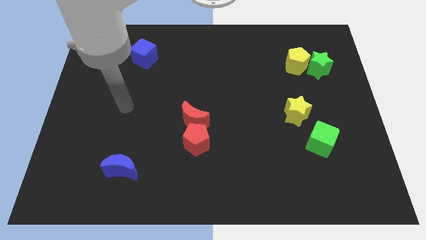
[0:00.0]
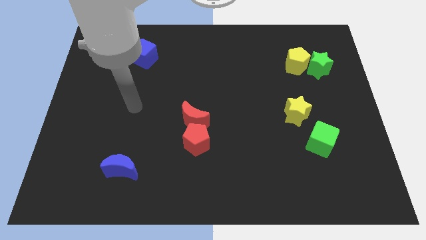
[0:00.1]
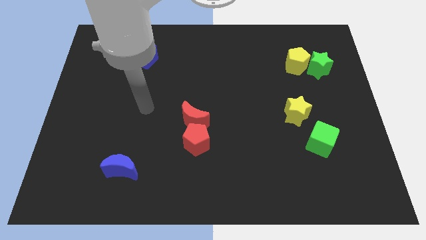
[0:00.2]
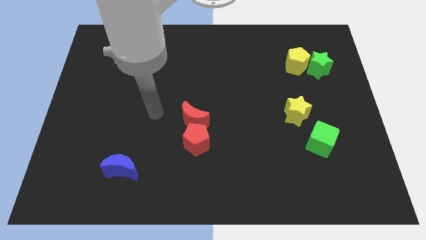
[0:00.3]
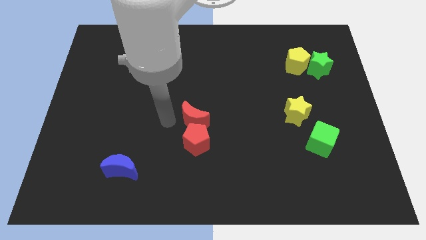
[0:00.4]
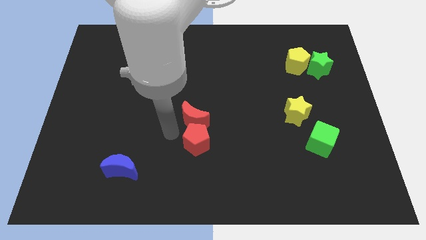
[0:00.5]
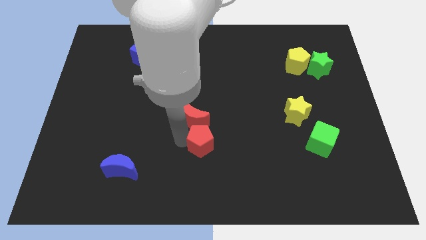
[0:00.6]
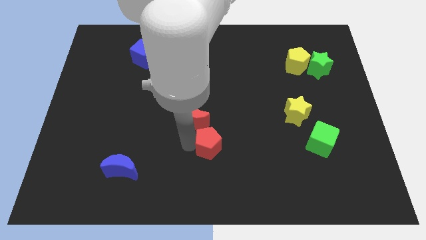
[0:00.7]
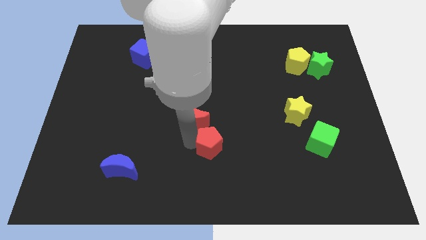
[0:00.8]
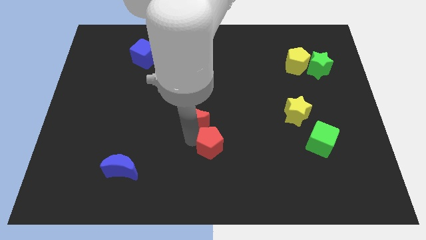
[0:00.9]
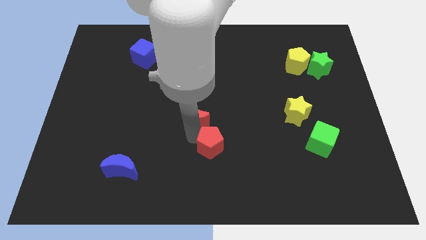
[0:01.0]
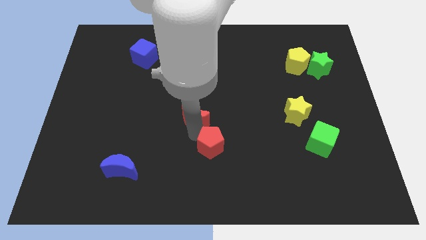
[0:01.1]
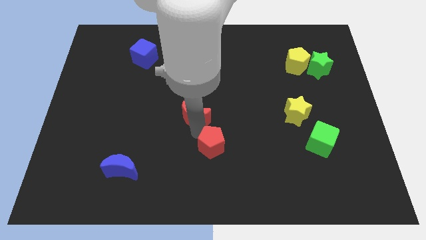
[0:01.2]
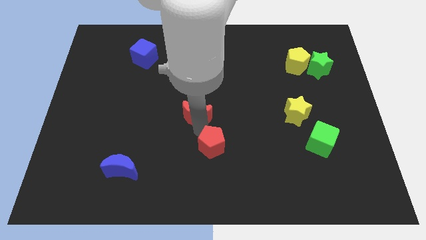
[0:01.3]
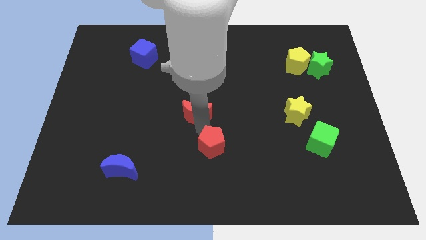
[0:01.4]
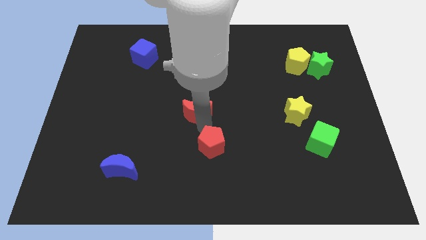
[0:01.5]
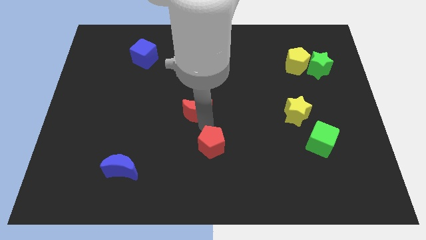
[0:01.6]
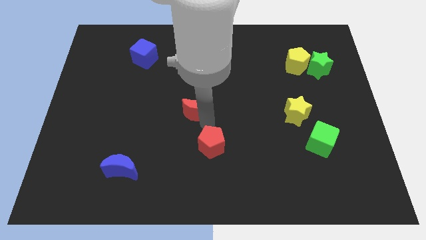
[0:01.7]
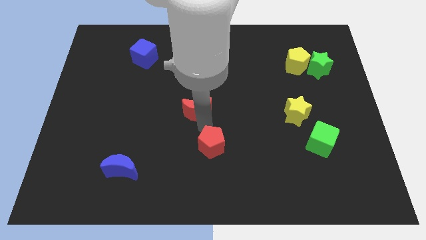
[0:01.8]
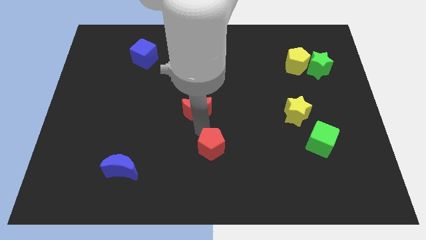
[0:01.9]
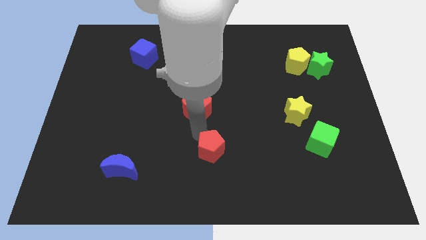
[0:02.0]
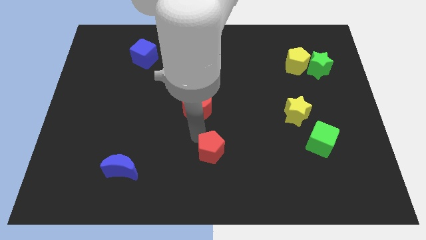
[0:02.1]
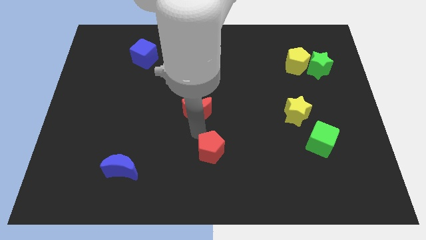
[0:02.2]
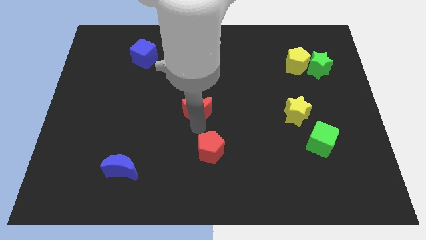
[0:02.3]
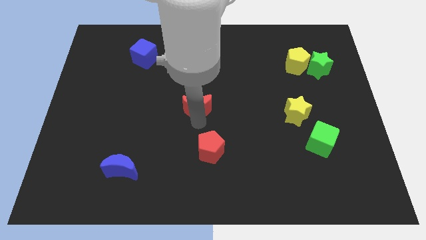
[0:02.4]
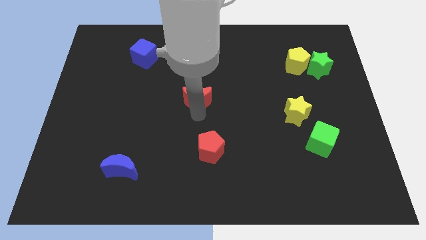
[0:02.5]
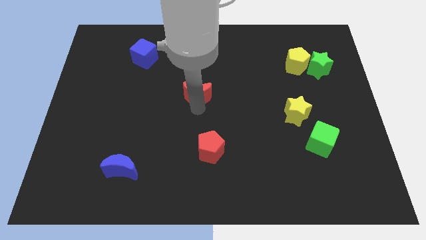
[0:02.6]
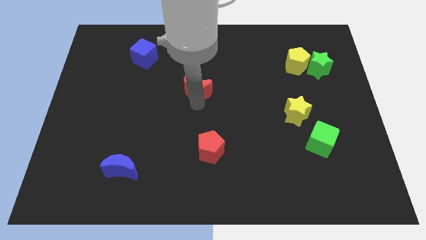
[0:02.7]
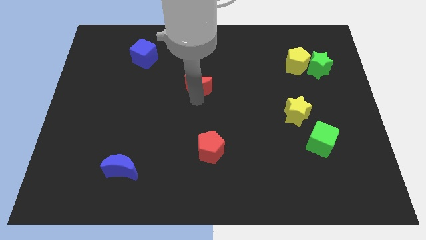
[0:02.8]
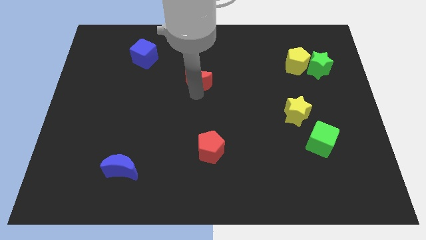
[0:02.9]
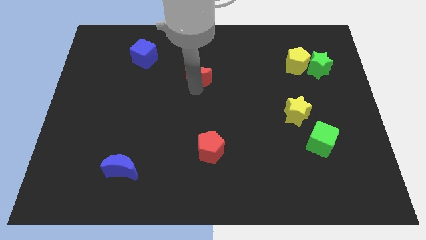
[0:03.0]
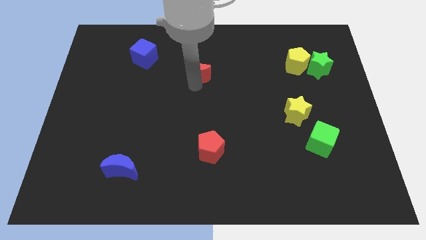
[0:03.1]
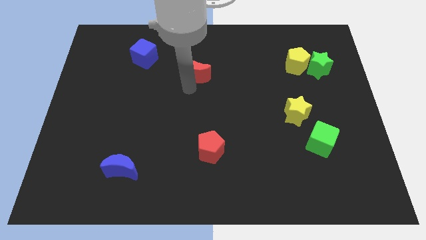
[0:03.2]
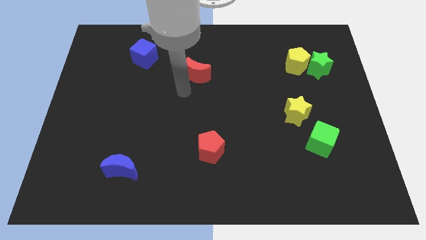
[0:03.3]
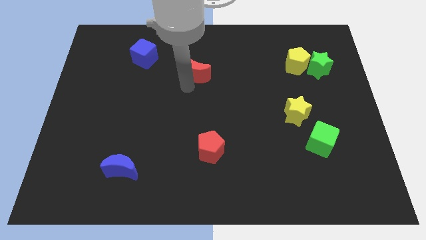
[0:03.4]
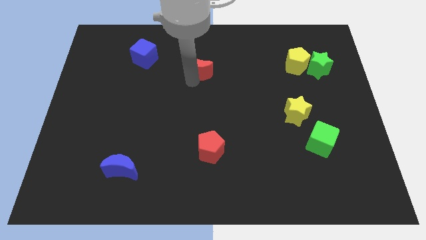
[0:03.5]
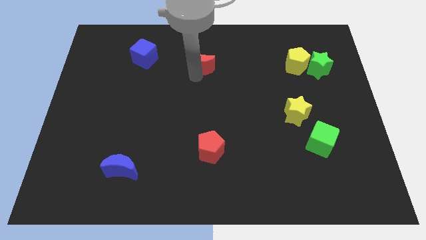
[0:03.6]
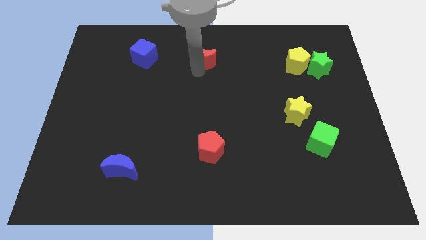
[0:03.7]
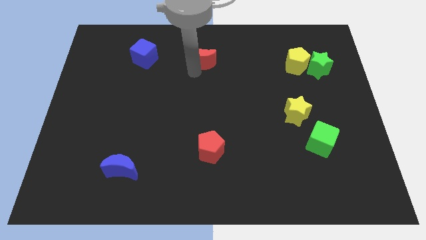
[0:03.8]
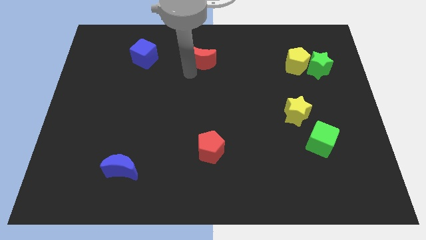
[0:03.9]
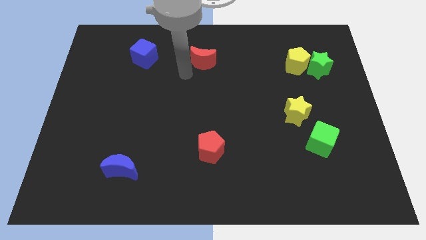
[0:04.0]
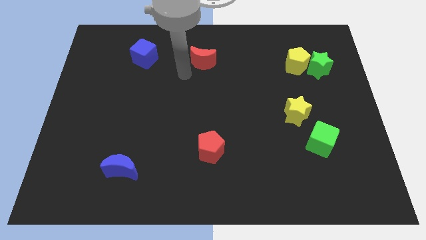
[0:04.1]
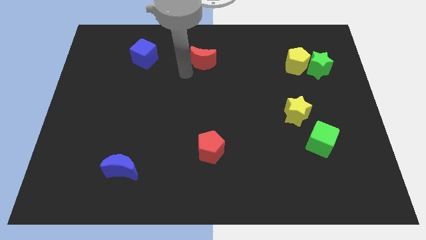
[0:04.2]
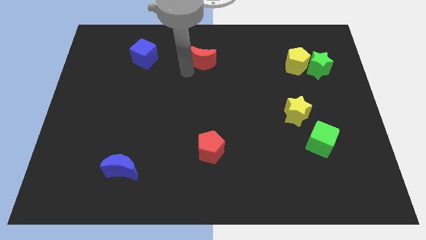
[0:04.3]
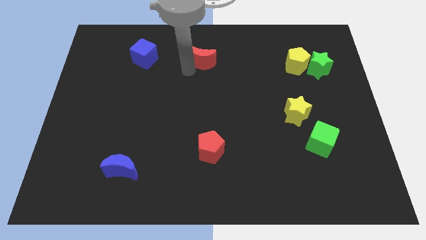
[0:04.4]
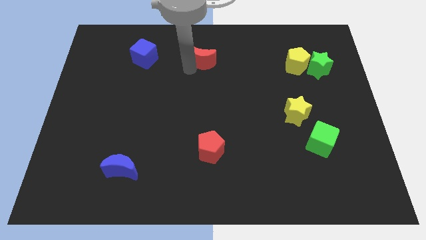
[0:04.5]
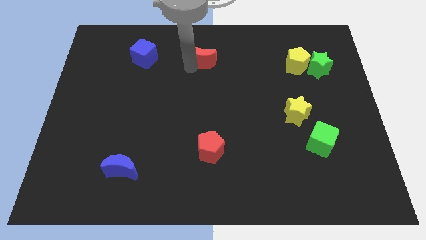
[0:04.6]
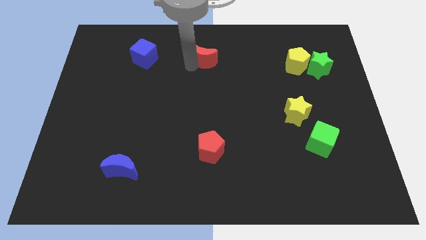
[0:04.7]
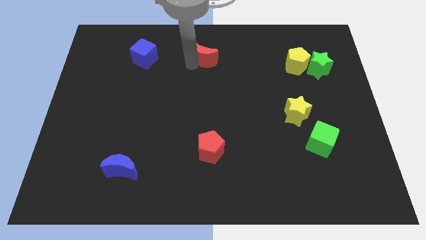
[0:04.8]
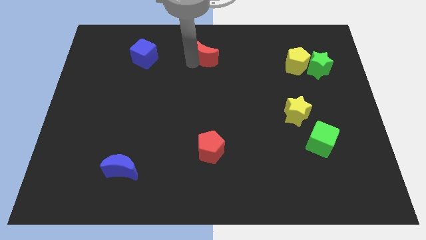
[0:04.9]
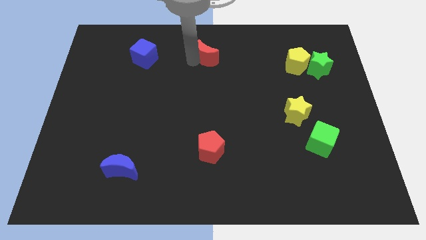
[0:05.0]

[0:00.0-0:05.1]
push the red moon to the top side

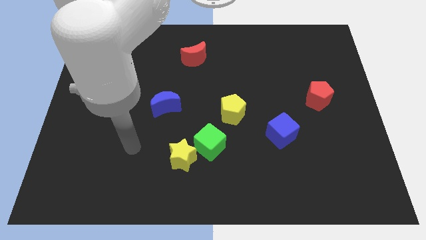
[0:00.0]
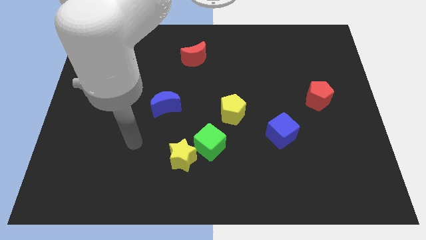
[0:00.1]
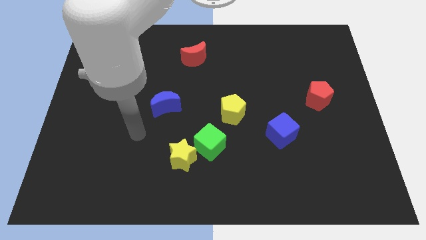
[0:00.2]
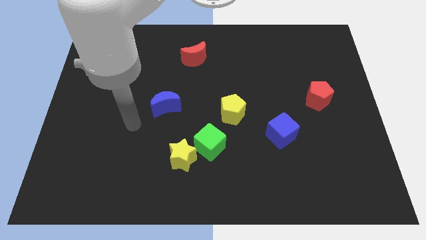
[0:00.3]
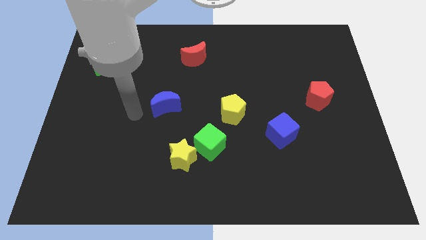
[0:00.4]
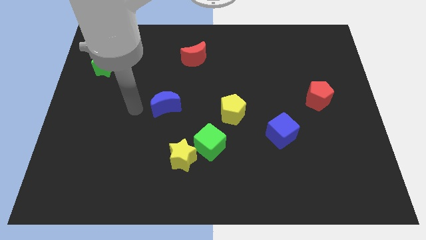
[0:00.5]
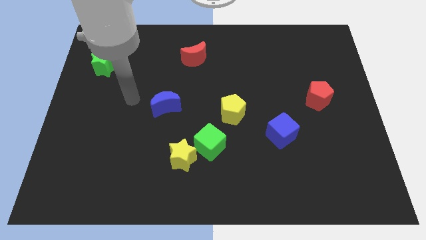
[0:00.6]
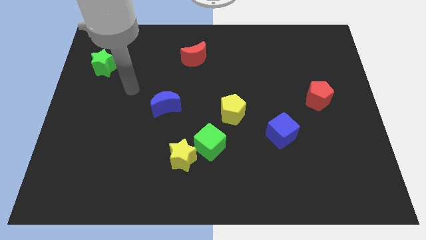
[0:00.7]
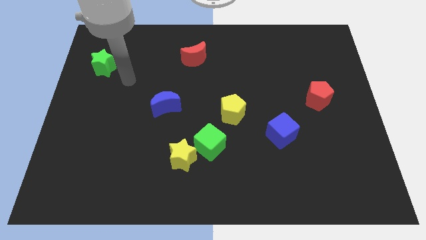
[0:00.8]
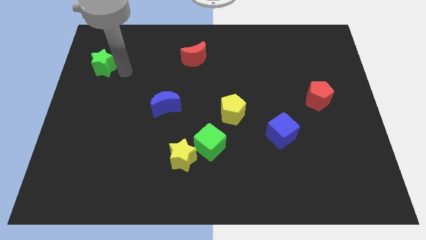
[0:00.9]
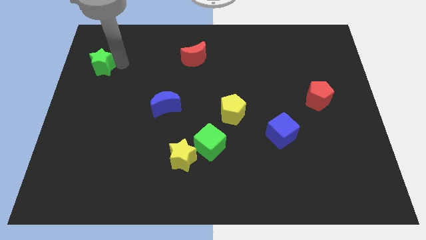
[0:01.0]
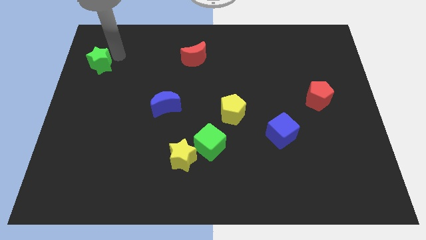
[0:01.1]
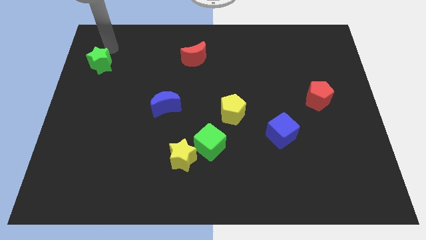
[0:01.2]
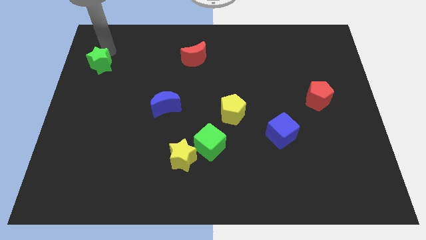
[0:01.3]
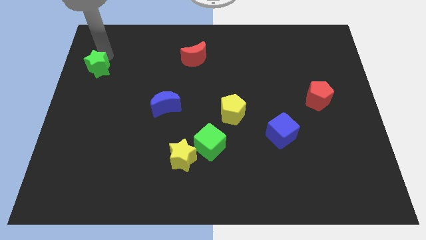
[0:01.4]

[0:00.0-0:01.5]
move the green star to the center left

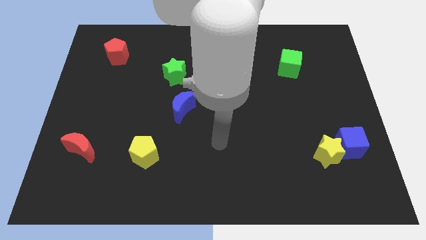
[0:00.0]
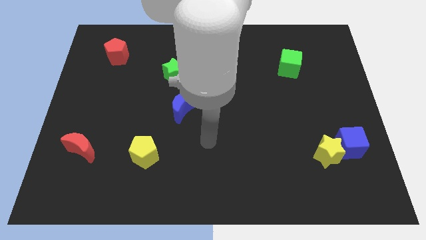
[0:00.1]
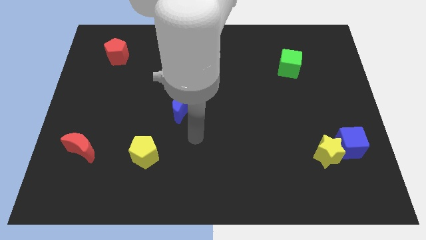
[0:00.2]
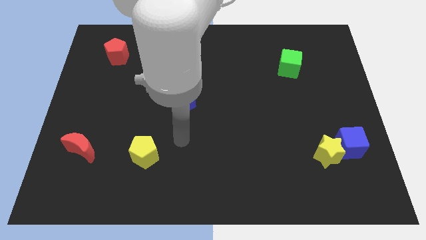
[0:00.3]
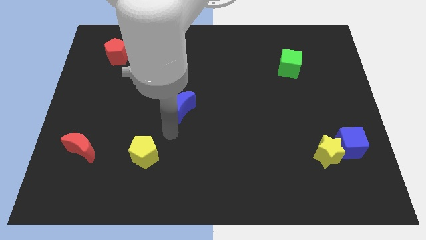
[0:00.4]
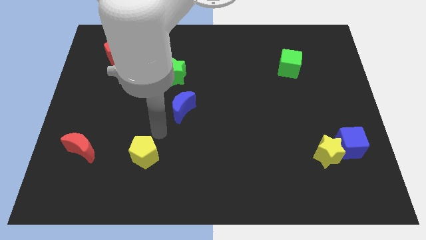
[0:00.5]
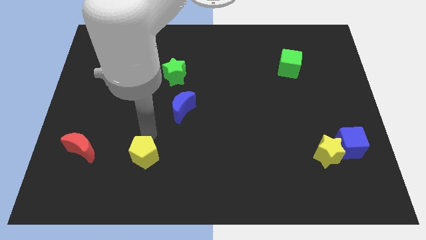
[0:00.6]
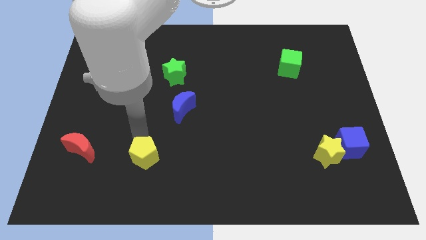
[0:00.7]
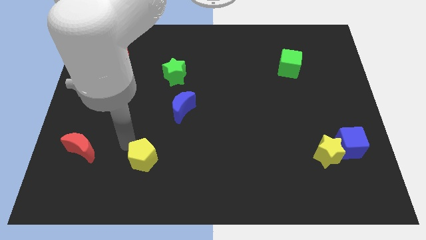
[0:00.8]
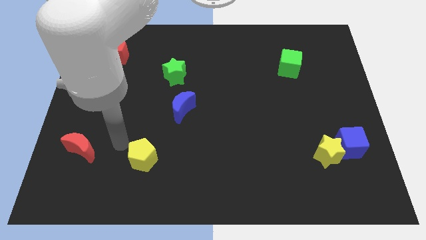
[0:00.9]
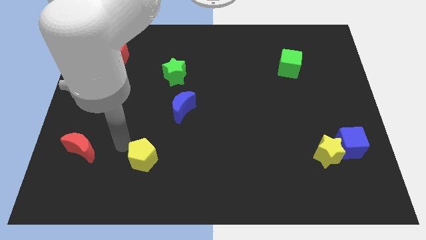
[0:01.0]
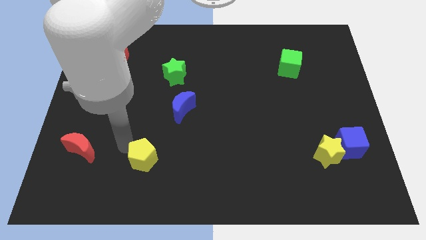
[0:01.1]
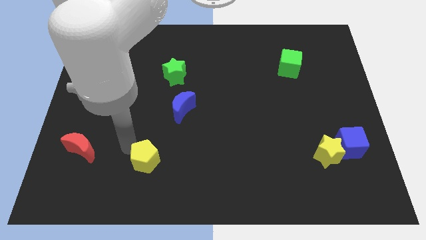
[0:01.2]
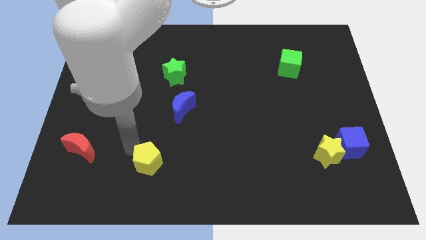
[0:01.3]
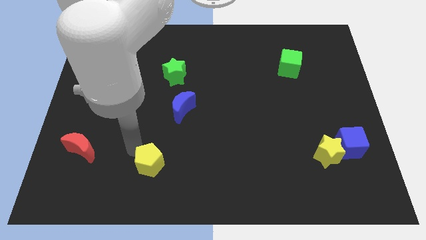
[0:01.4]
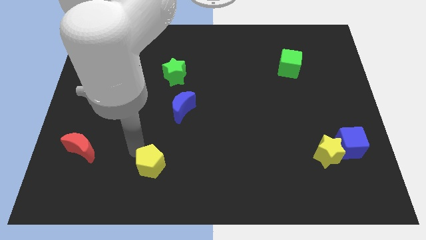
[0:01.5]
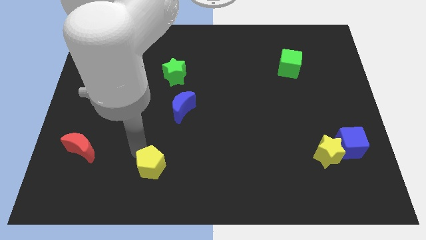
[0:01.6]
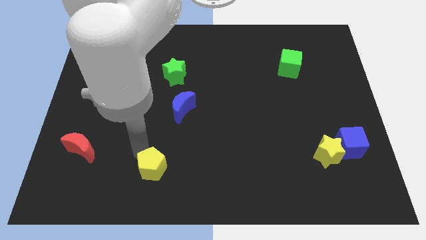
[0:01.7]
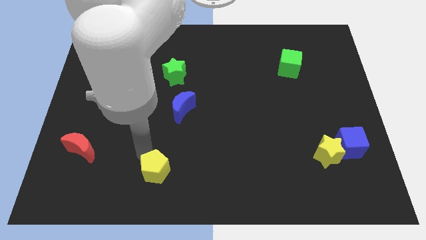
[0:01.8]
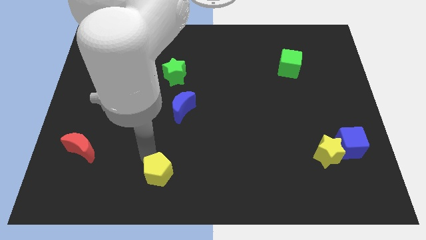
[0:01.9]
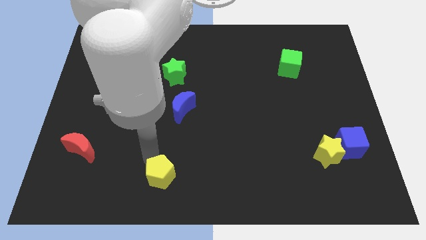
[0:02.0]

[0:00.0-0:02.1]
slide the yellow pentagon to the bottom side
